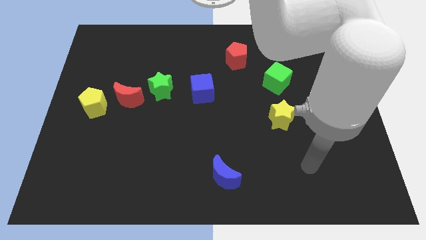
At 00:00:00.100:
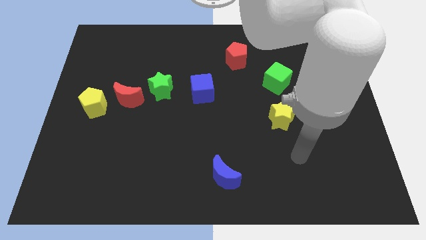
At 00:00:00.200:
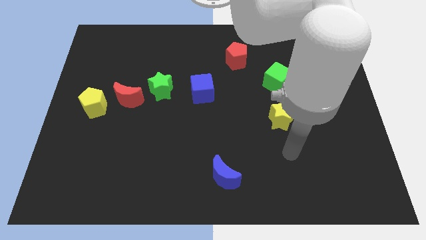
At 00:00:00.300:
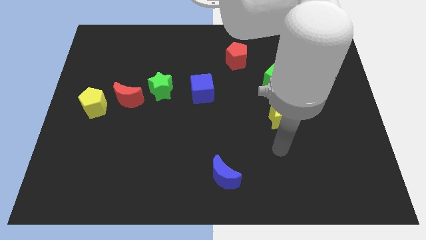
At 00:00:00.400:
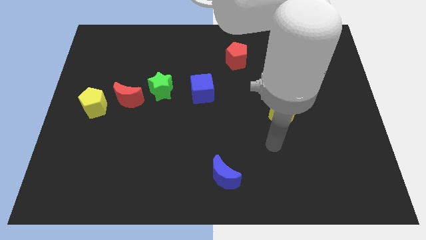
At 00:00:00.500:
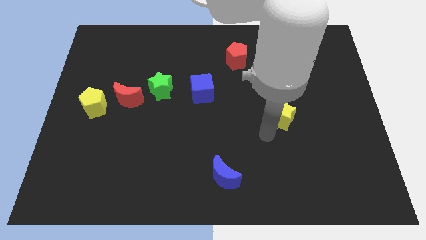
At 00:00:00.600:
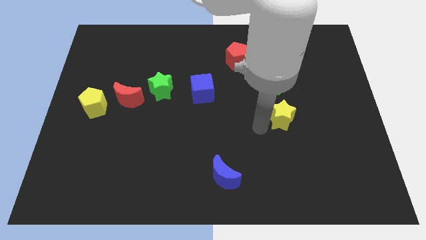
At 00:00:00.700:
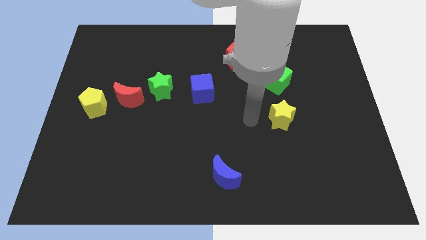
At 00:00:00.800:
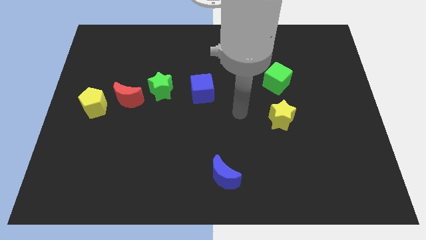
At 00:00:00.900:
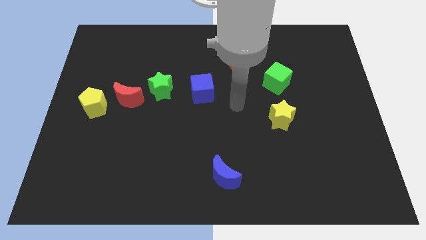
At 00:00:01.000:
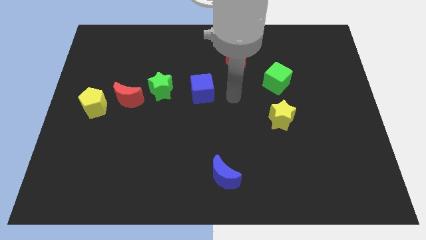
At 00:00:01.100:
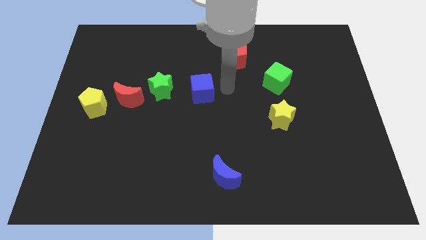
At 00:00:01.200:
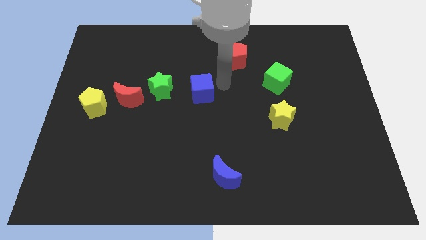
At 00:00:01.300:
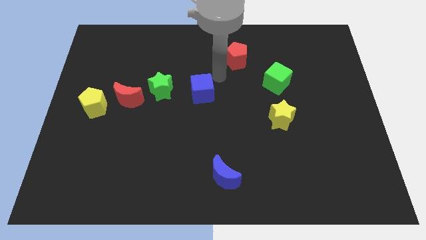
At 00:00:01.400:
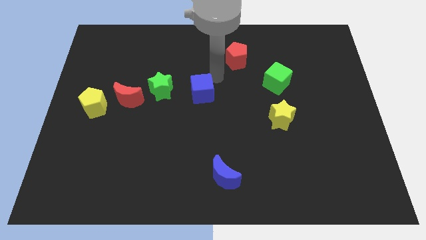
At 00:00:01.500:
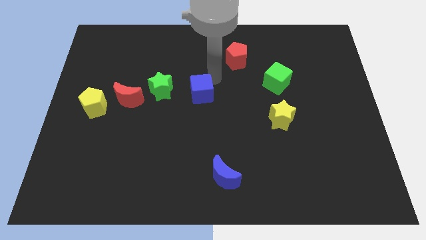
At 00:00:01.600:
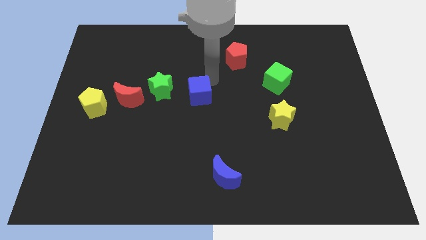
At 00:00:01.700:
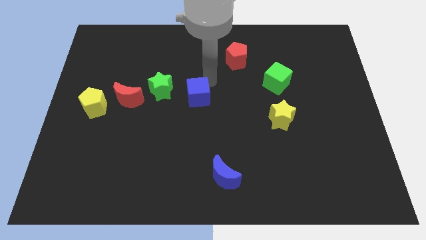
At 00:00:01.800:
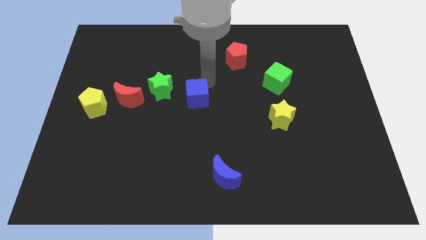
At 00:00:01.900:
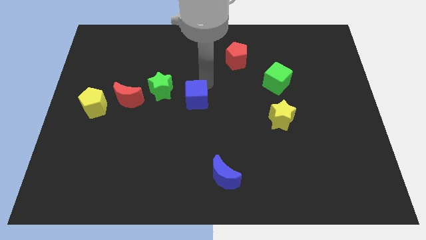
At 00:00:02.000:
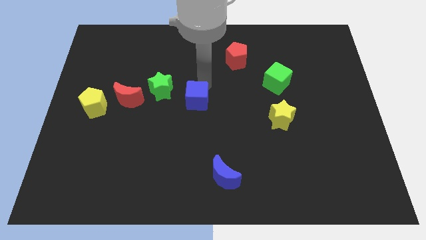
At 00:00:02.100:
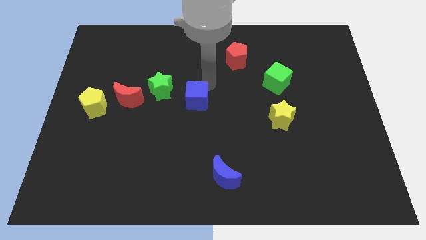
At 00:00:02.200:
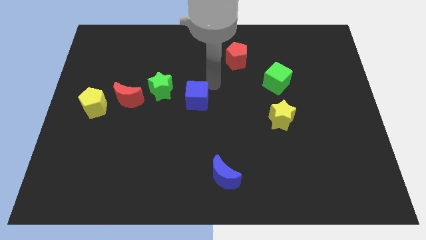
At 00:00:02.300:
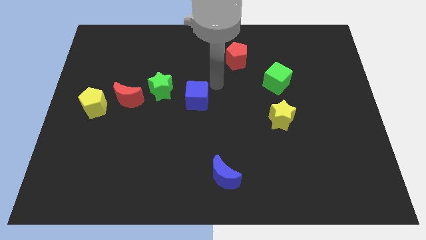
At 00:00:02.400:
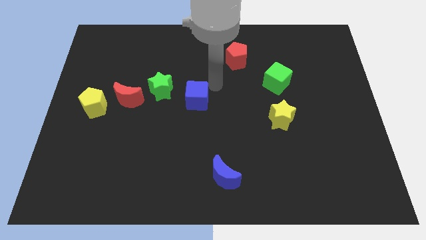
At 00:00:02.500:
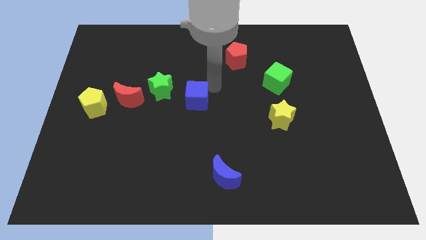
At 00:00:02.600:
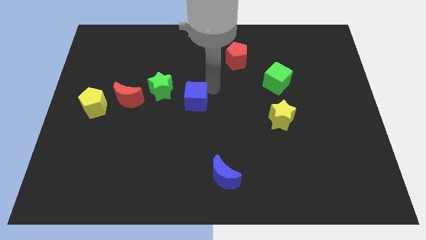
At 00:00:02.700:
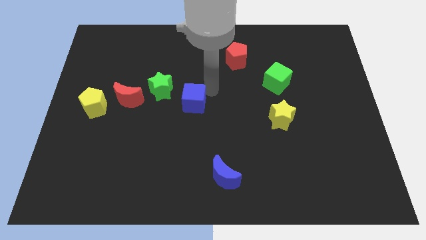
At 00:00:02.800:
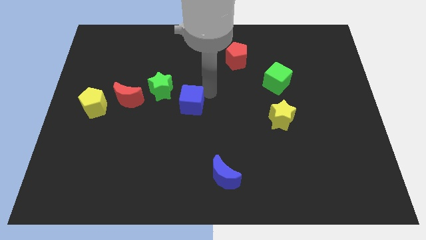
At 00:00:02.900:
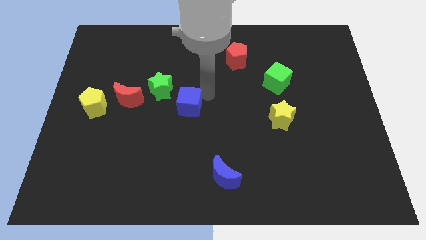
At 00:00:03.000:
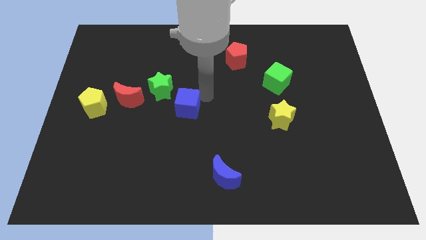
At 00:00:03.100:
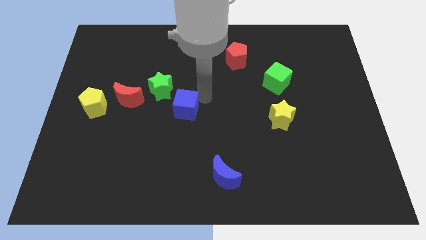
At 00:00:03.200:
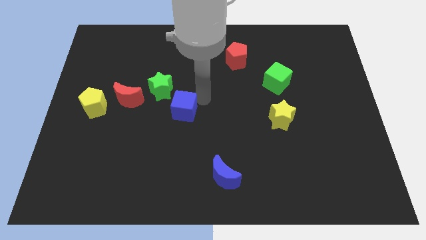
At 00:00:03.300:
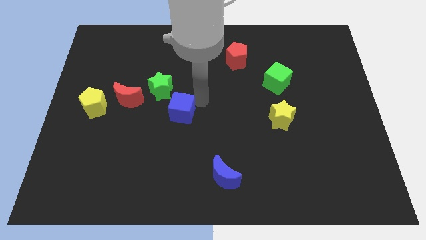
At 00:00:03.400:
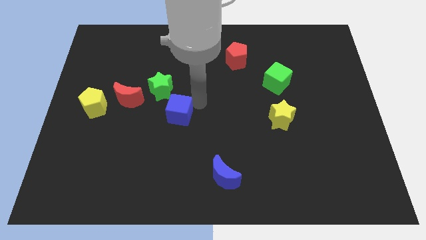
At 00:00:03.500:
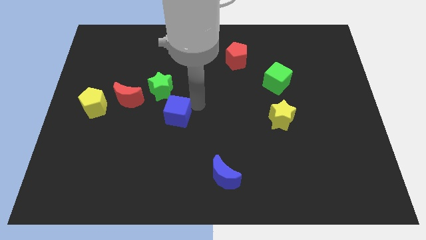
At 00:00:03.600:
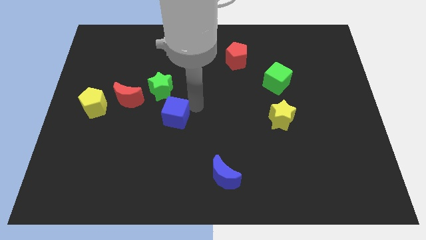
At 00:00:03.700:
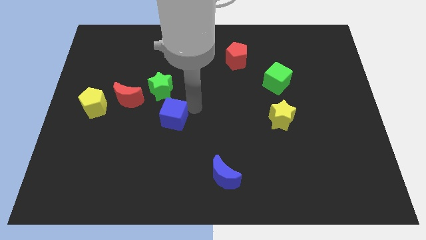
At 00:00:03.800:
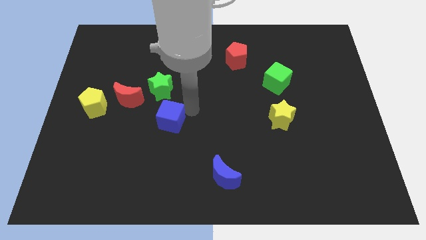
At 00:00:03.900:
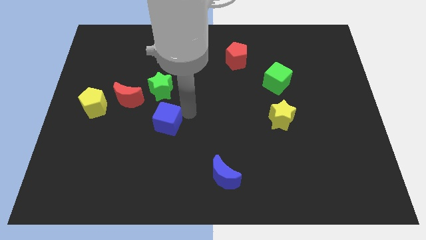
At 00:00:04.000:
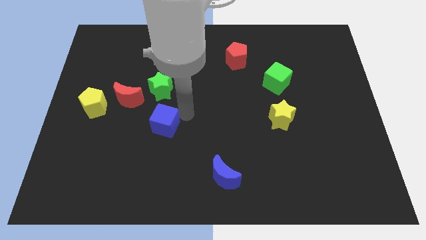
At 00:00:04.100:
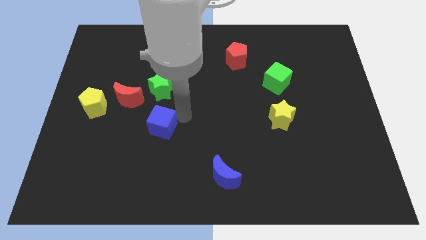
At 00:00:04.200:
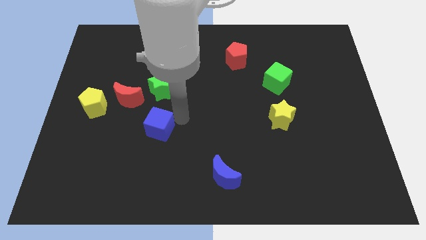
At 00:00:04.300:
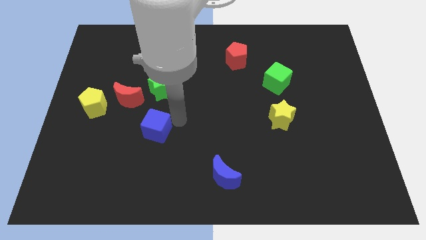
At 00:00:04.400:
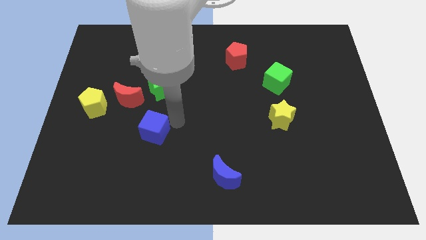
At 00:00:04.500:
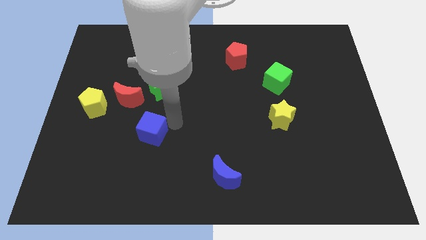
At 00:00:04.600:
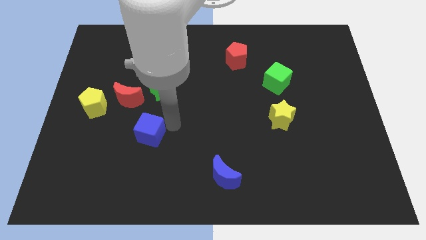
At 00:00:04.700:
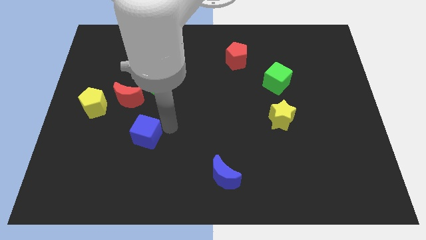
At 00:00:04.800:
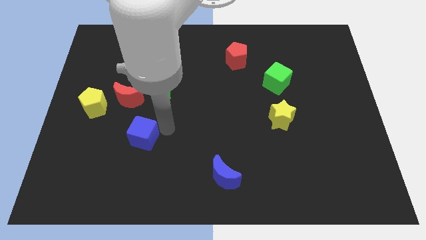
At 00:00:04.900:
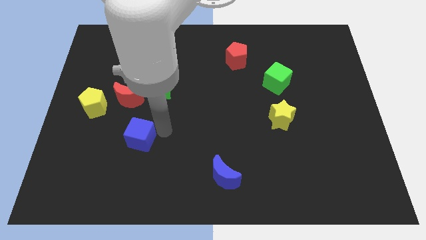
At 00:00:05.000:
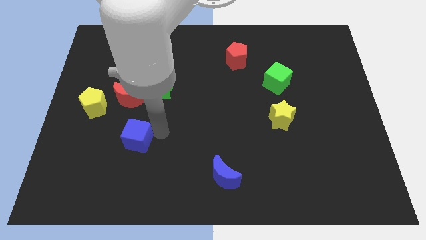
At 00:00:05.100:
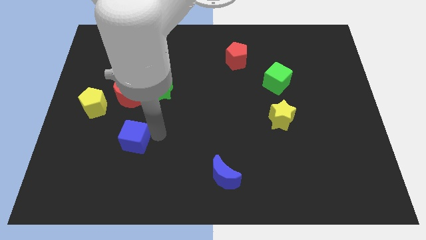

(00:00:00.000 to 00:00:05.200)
slide the blue cube downwards and to the left

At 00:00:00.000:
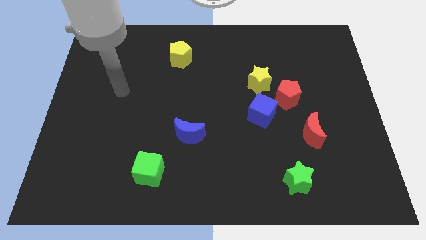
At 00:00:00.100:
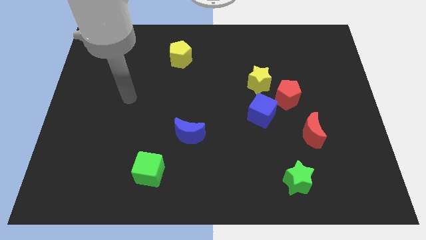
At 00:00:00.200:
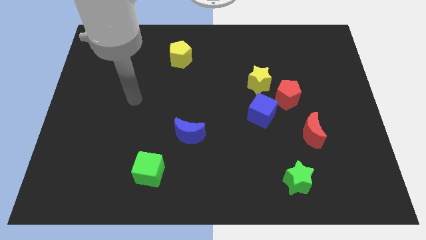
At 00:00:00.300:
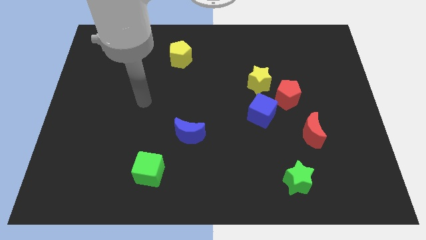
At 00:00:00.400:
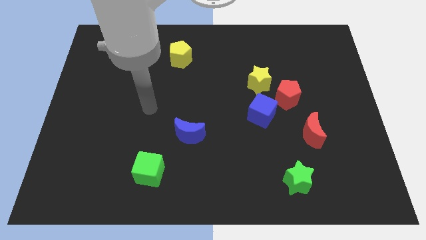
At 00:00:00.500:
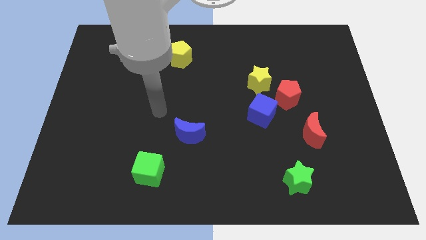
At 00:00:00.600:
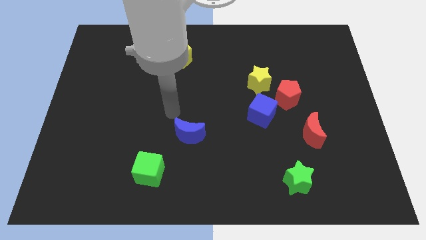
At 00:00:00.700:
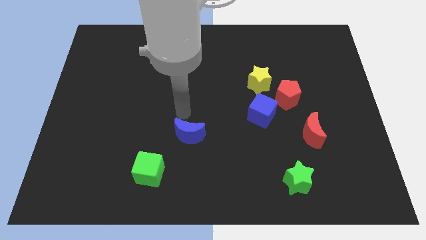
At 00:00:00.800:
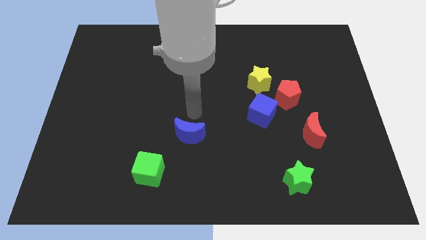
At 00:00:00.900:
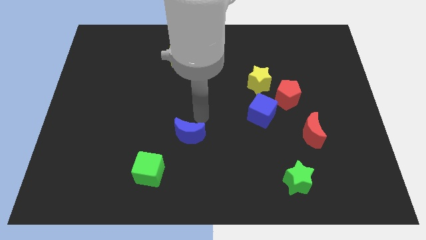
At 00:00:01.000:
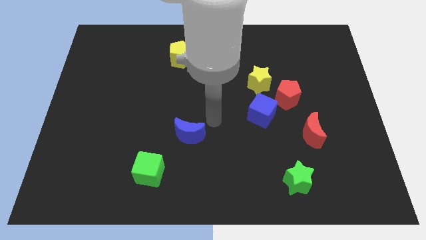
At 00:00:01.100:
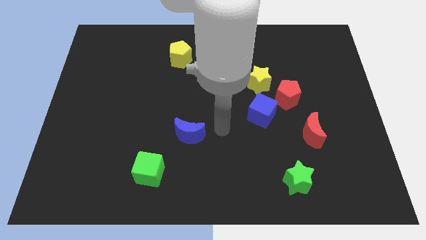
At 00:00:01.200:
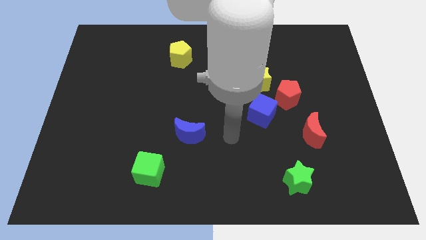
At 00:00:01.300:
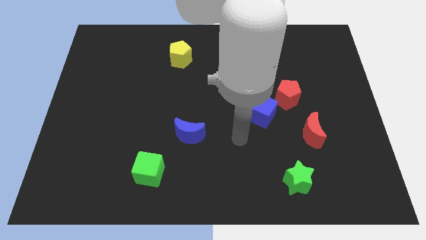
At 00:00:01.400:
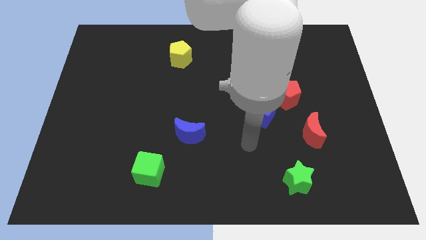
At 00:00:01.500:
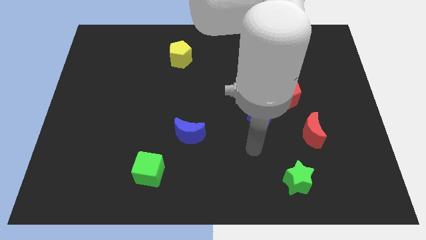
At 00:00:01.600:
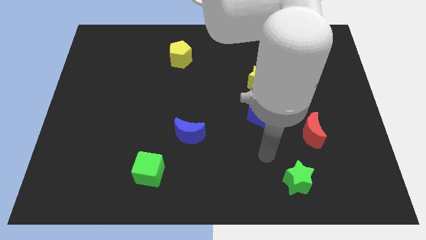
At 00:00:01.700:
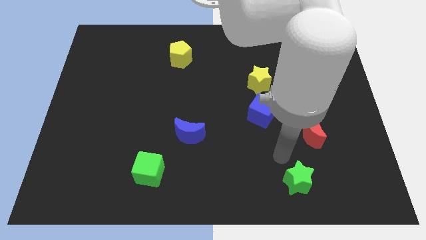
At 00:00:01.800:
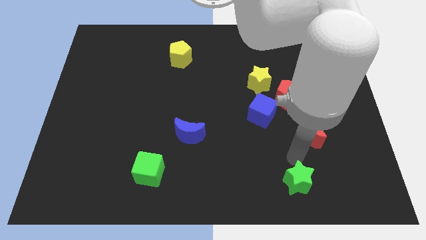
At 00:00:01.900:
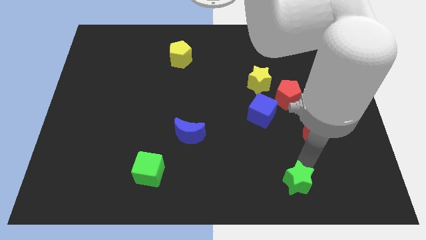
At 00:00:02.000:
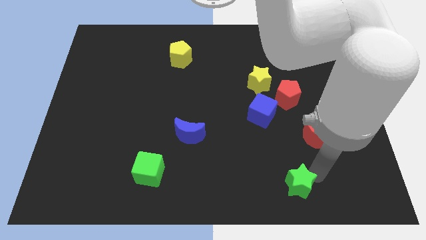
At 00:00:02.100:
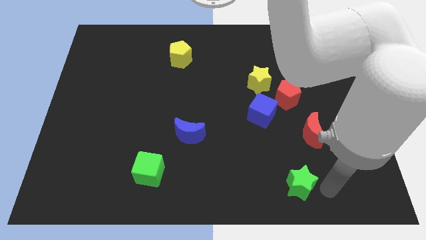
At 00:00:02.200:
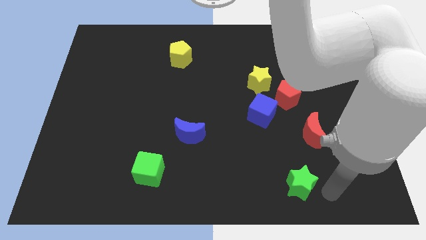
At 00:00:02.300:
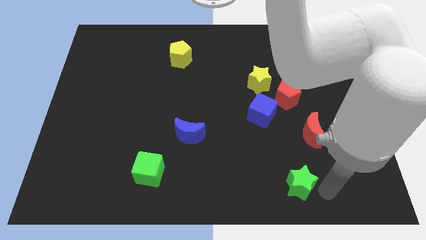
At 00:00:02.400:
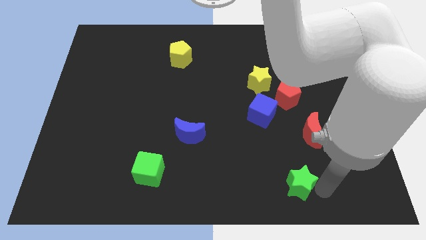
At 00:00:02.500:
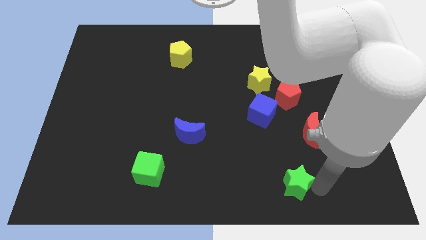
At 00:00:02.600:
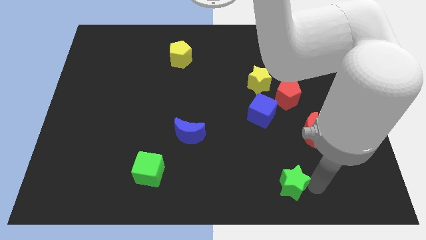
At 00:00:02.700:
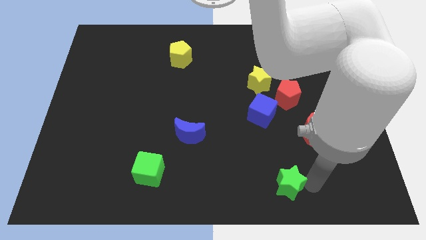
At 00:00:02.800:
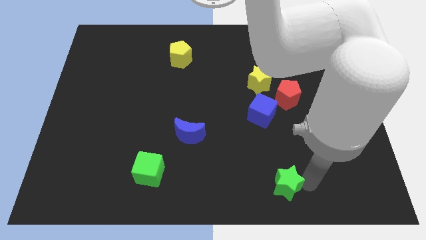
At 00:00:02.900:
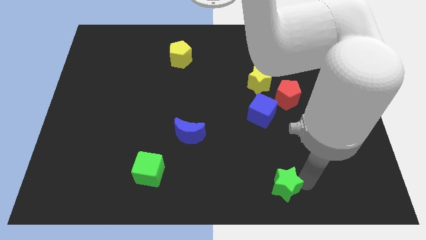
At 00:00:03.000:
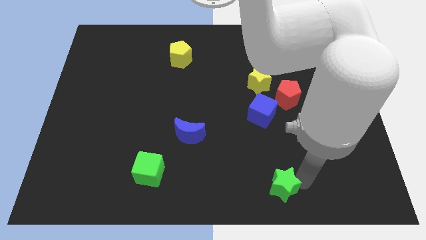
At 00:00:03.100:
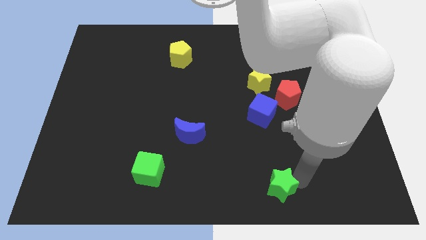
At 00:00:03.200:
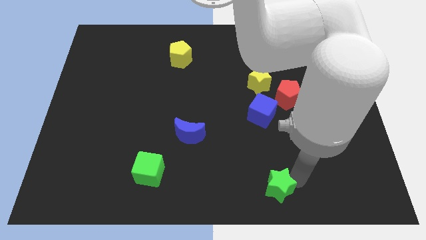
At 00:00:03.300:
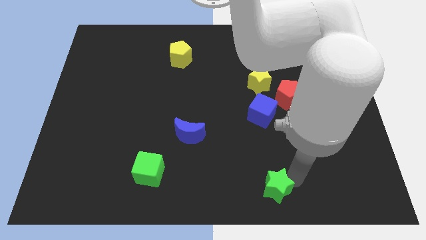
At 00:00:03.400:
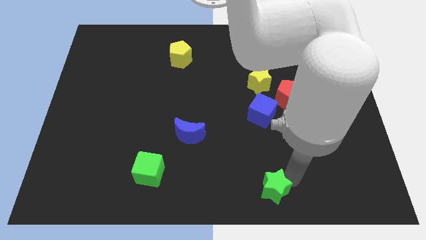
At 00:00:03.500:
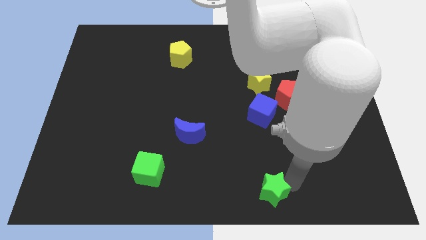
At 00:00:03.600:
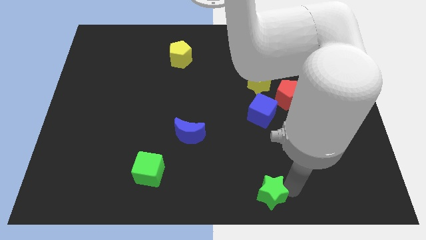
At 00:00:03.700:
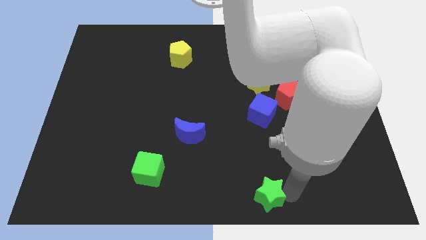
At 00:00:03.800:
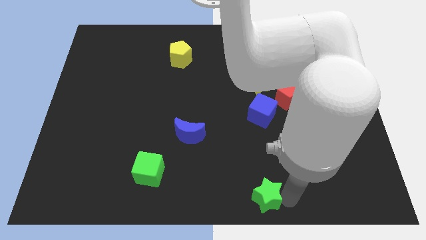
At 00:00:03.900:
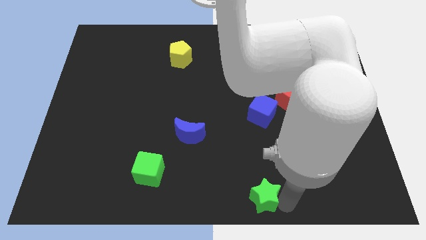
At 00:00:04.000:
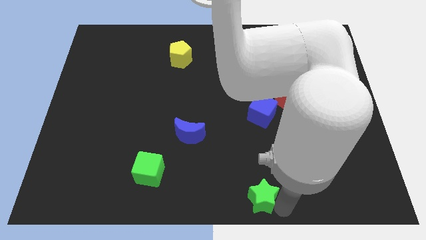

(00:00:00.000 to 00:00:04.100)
move the green star left slightly
